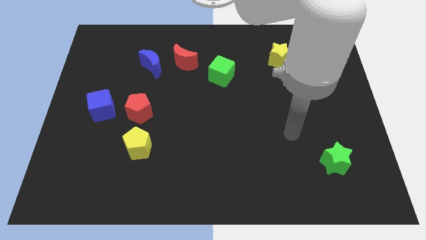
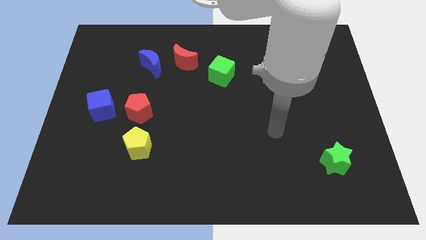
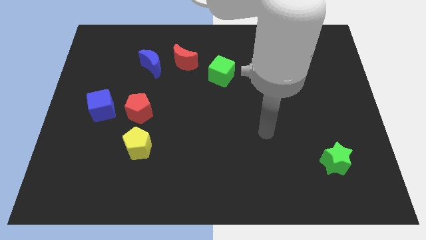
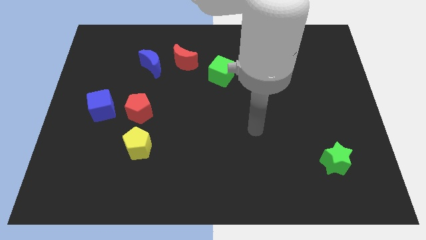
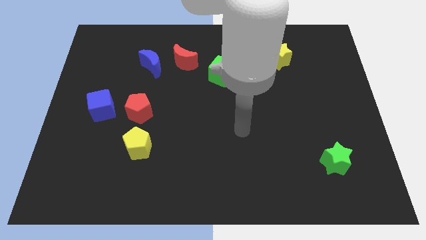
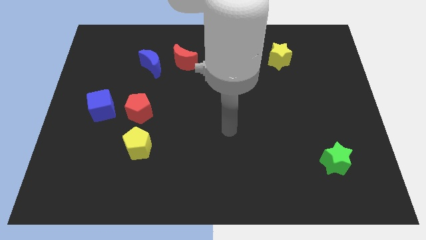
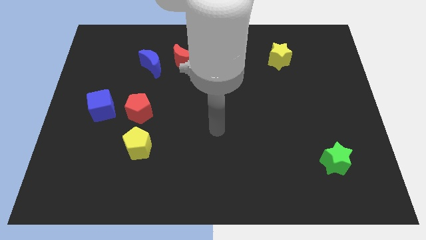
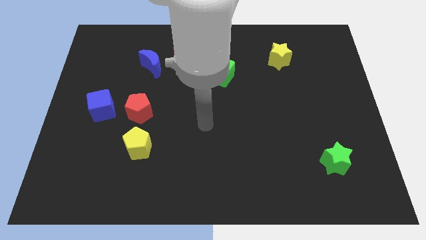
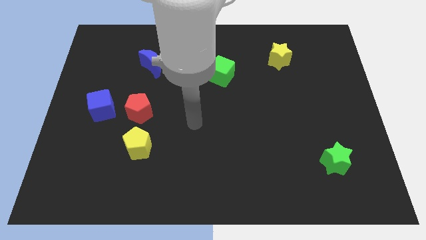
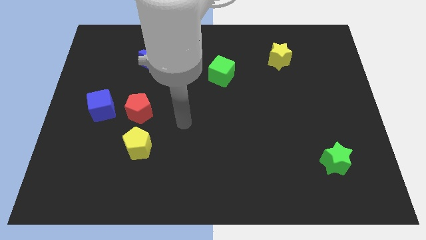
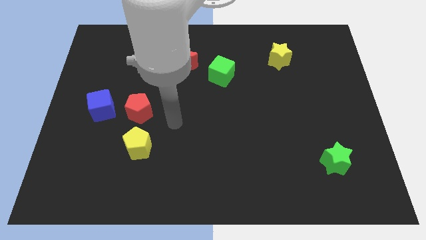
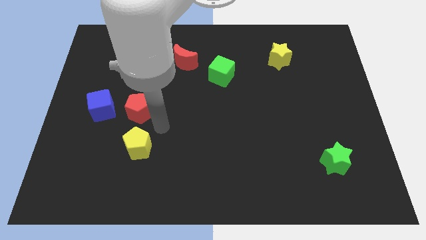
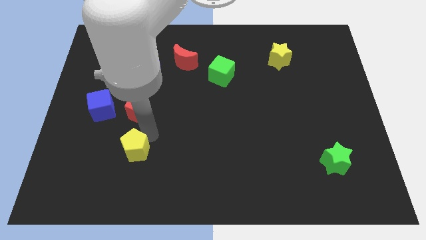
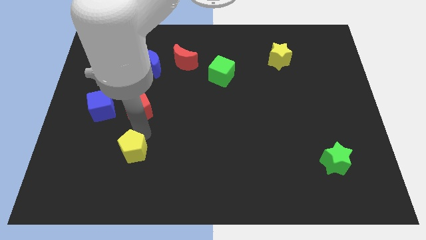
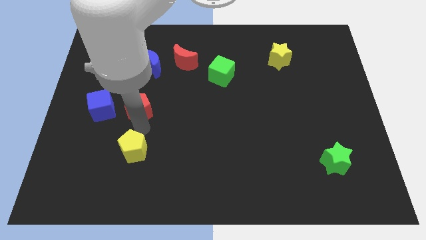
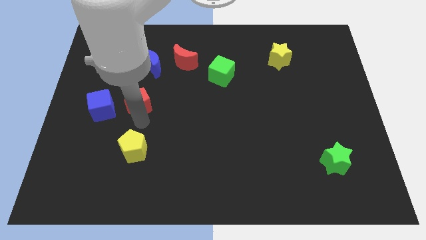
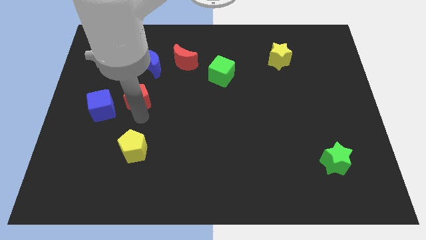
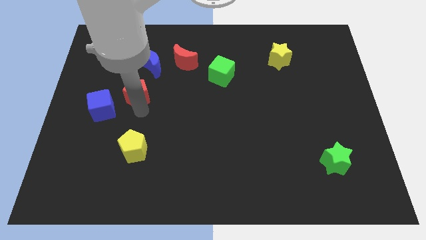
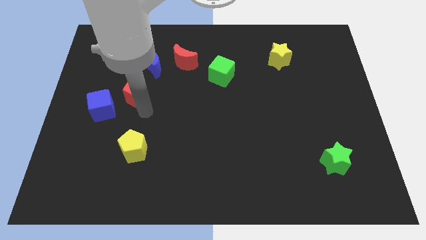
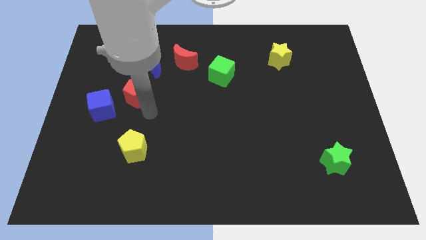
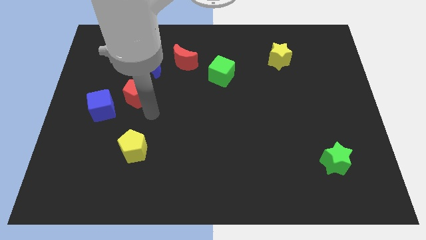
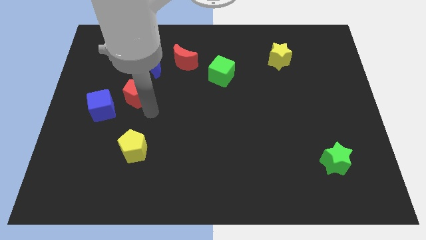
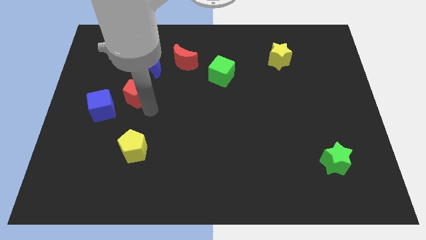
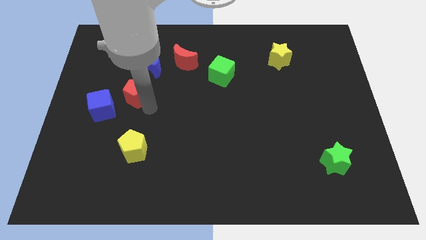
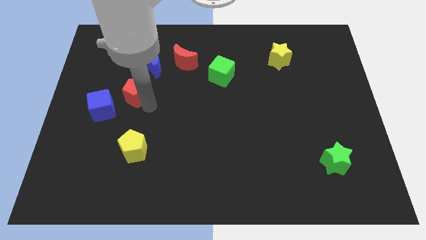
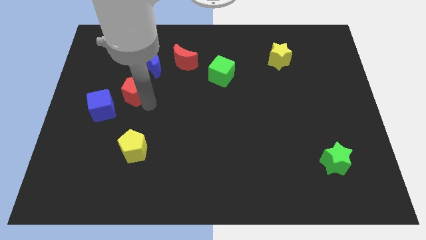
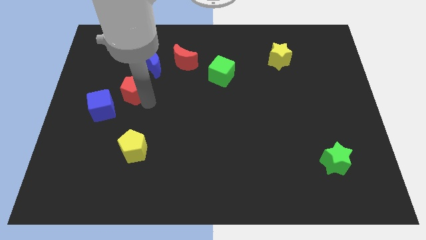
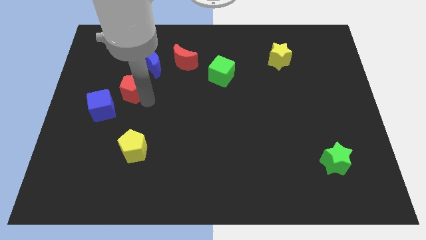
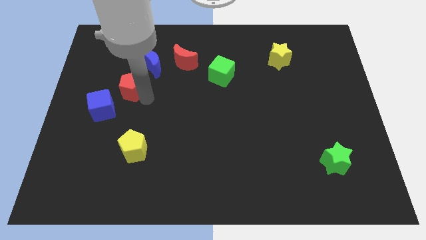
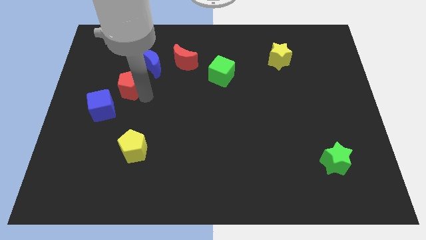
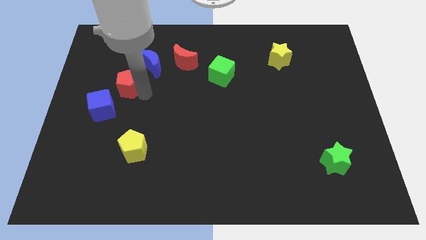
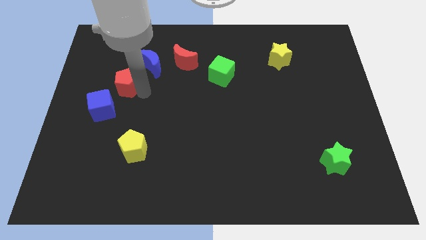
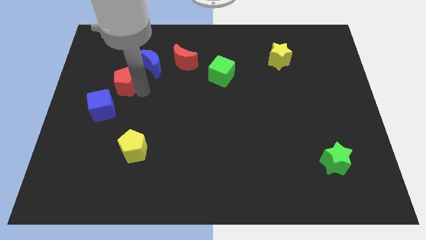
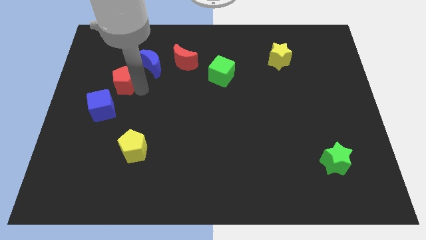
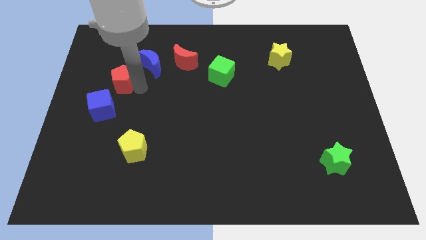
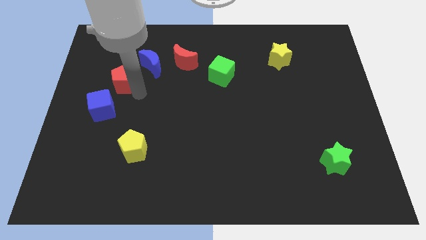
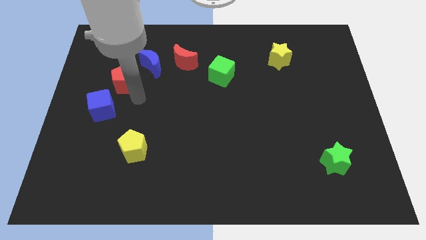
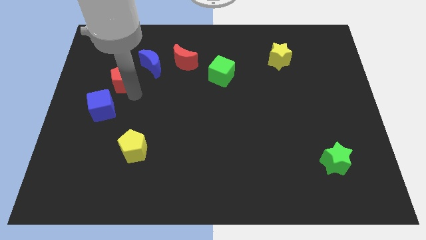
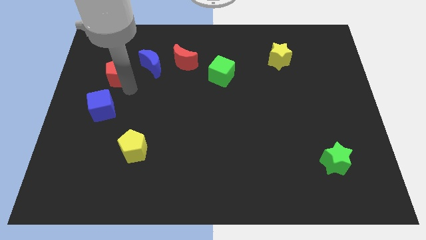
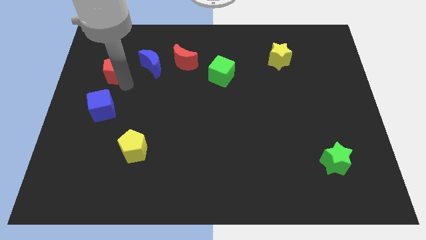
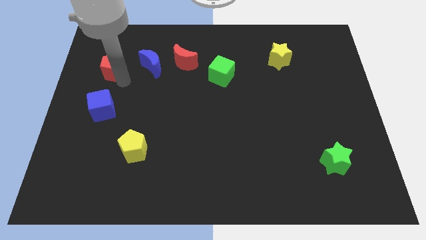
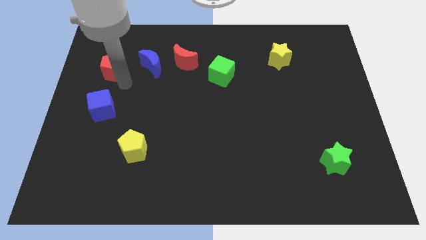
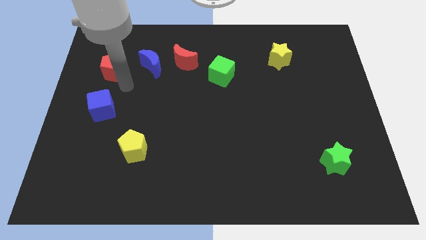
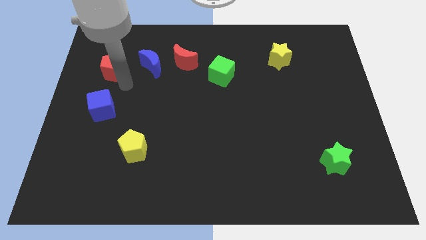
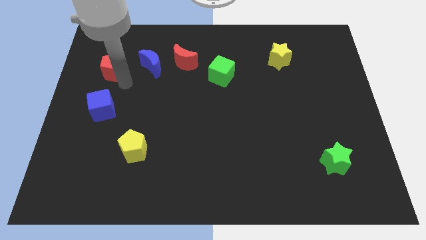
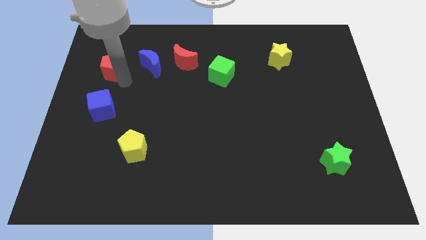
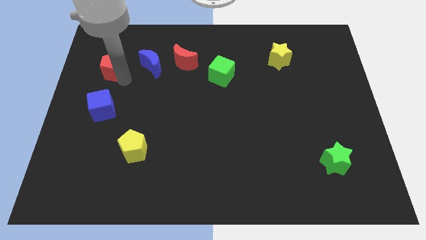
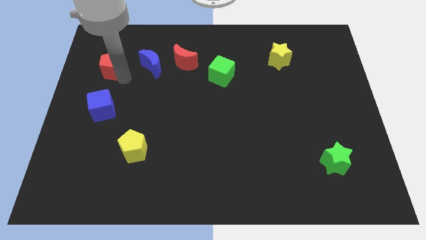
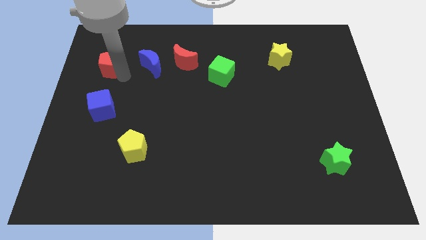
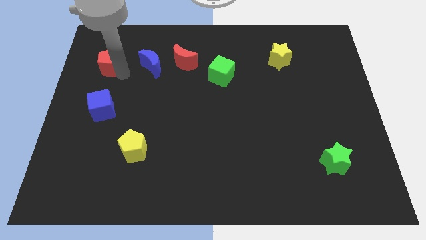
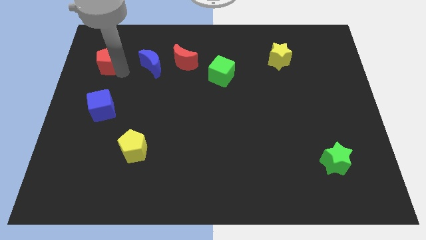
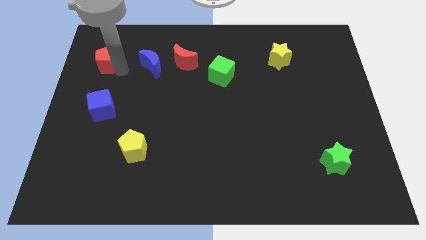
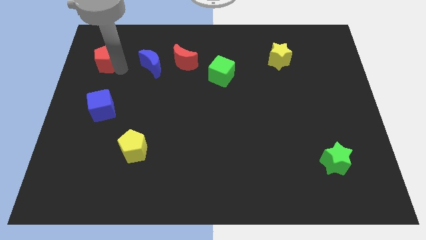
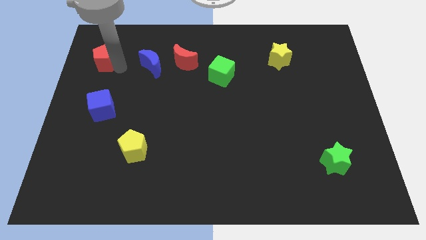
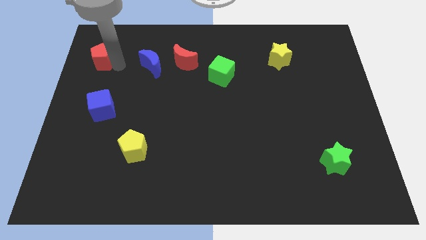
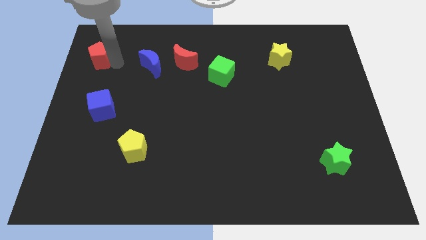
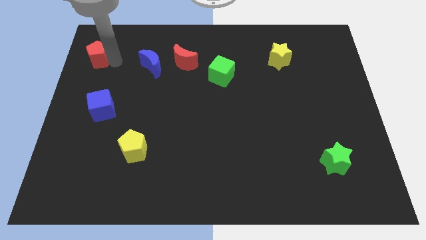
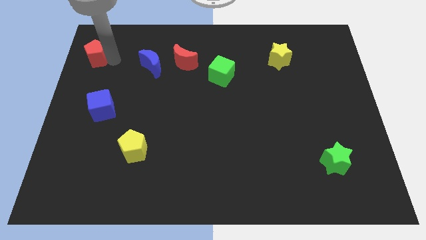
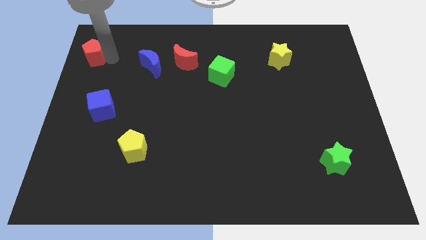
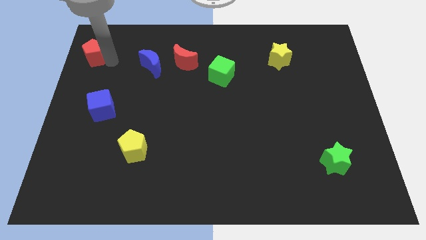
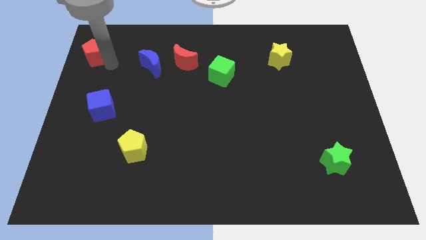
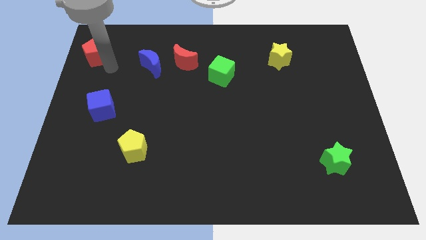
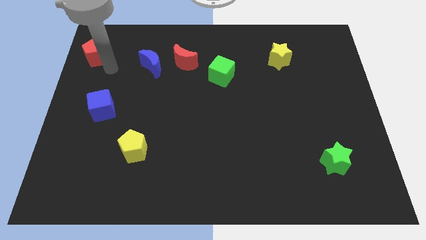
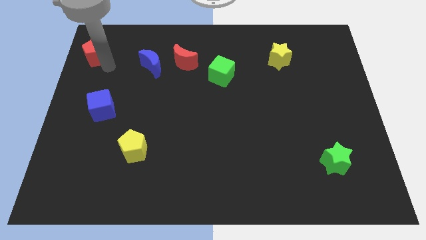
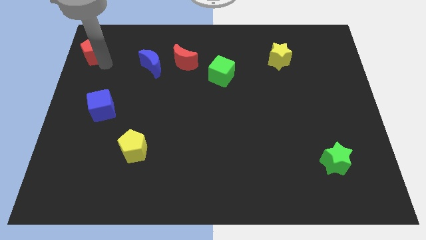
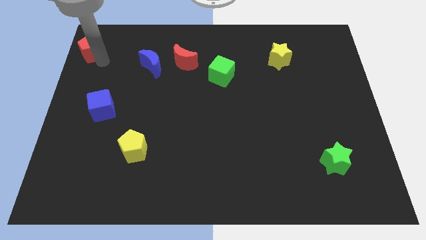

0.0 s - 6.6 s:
move the red pentagon to the top left corner
